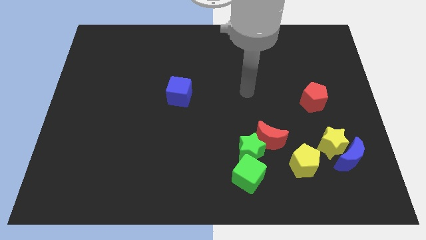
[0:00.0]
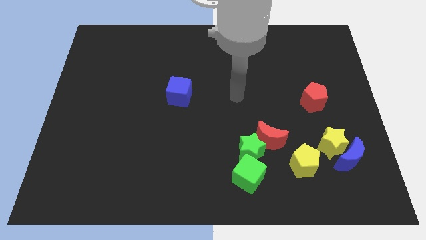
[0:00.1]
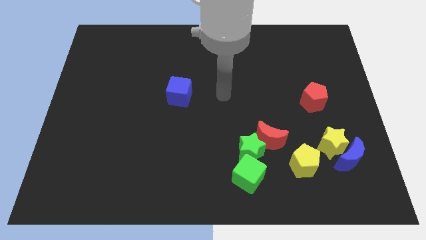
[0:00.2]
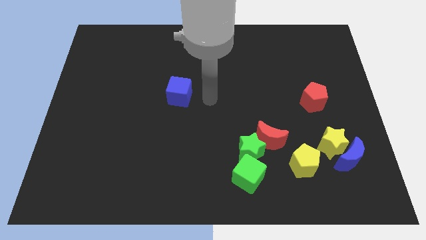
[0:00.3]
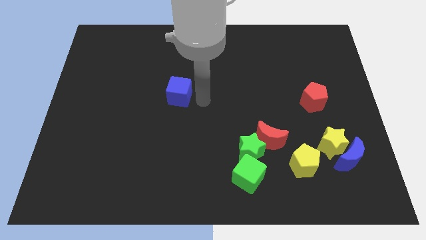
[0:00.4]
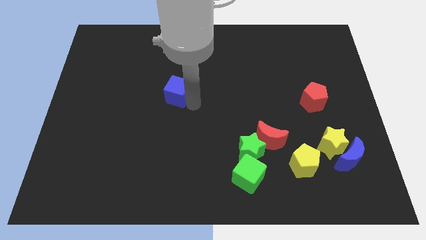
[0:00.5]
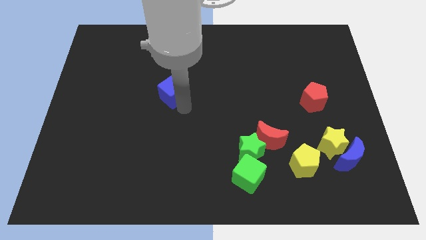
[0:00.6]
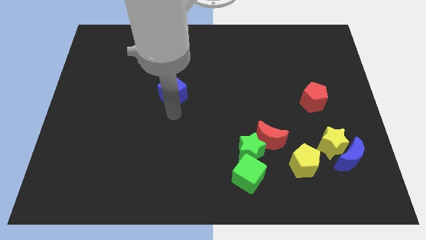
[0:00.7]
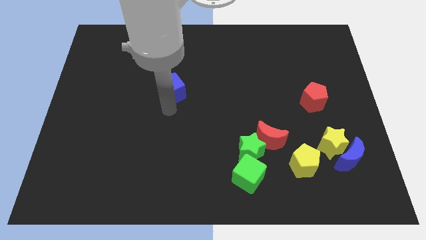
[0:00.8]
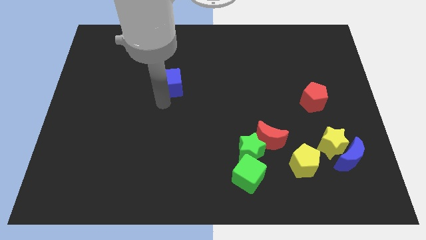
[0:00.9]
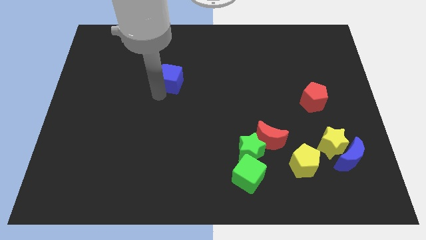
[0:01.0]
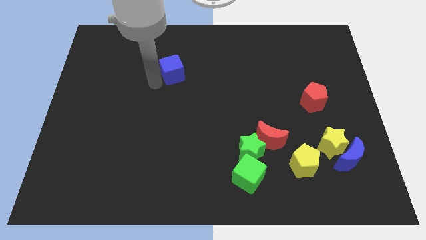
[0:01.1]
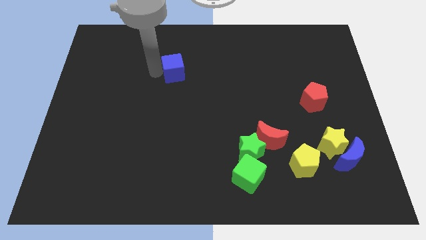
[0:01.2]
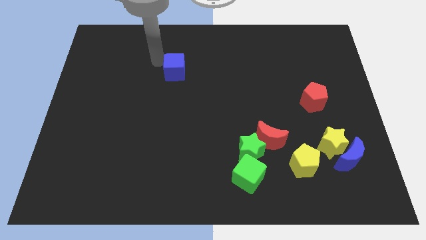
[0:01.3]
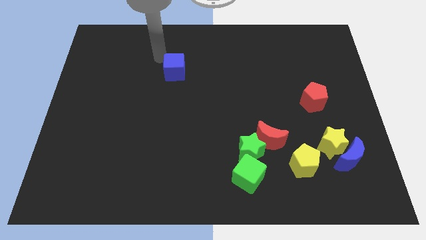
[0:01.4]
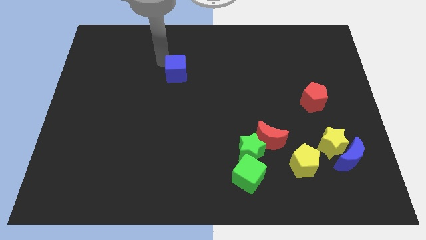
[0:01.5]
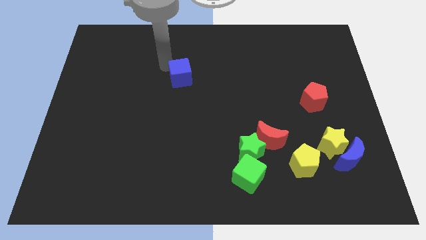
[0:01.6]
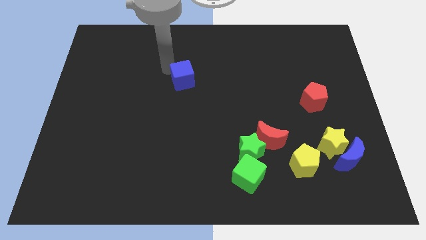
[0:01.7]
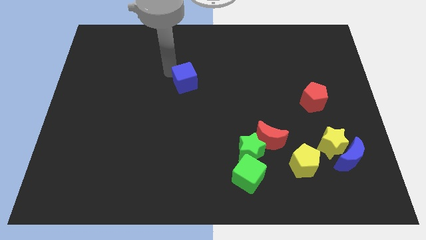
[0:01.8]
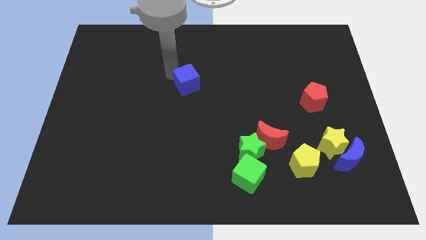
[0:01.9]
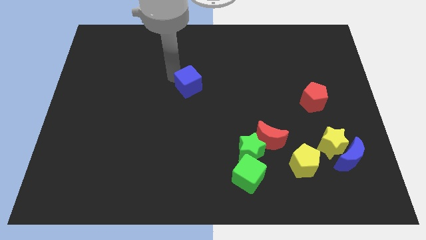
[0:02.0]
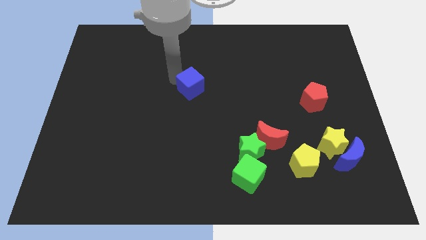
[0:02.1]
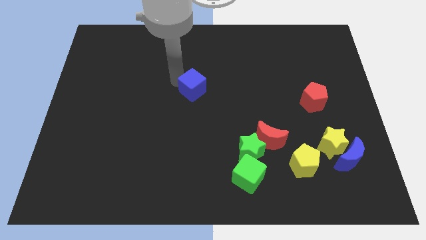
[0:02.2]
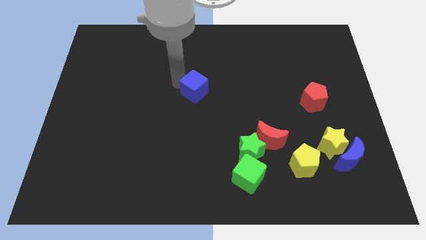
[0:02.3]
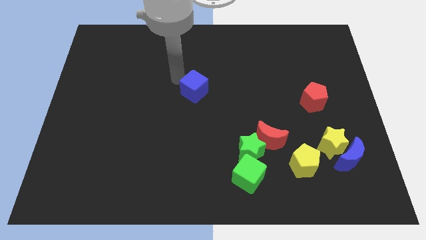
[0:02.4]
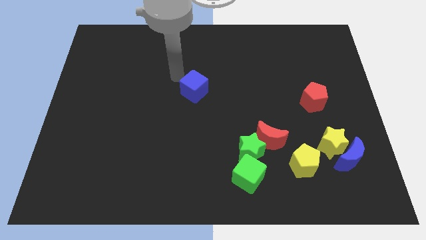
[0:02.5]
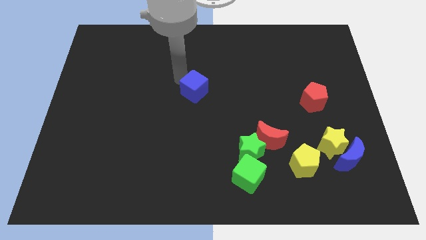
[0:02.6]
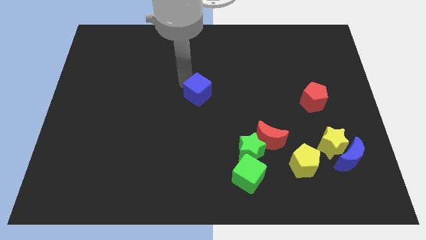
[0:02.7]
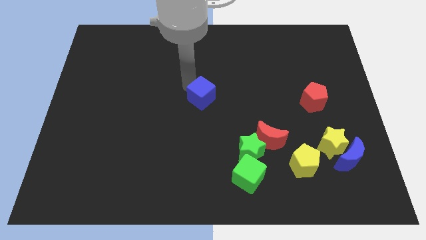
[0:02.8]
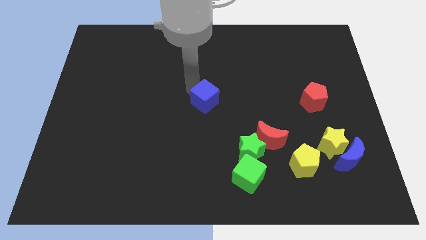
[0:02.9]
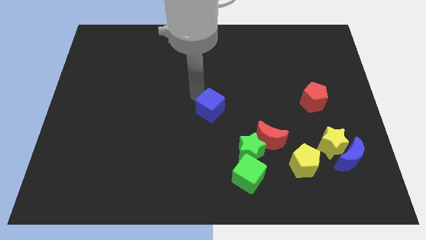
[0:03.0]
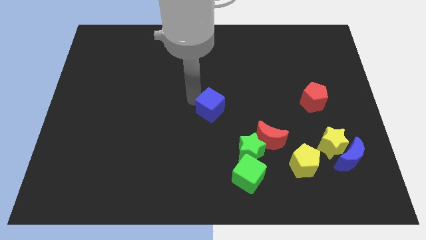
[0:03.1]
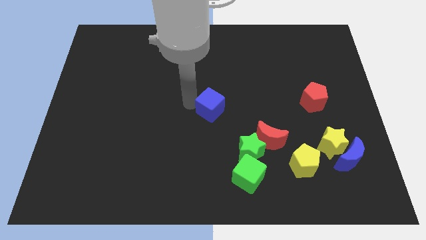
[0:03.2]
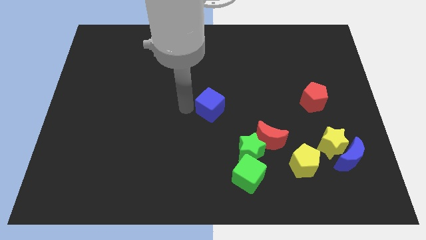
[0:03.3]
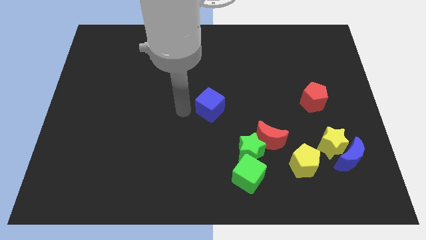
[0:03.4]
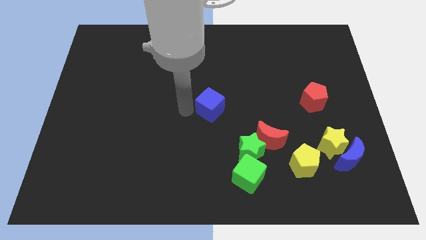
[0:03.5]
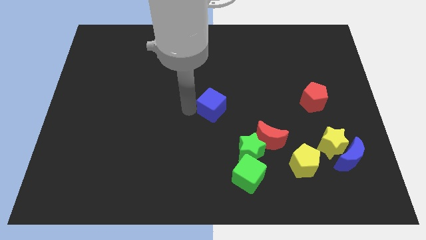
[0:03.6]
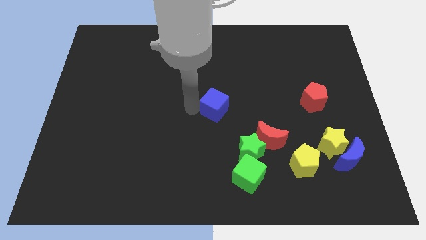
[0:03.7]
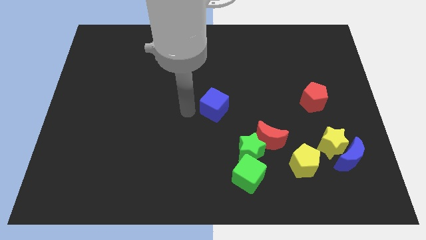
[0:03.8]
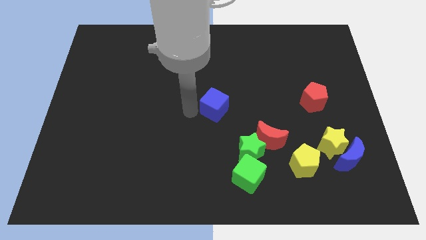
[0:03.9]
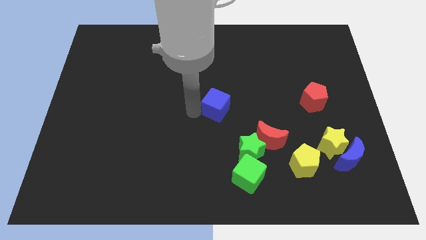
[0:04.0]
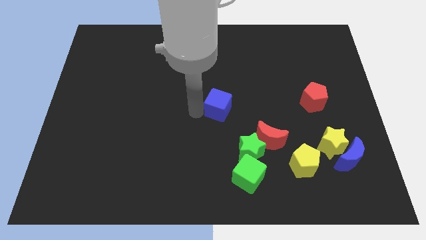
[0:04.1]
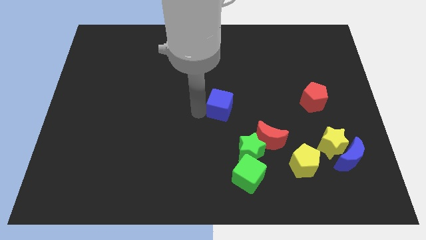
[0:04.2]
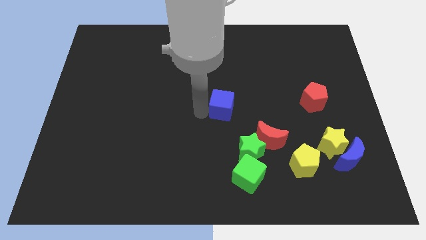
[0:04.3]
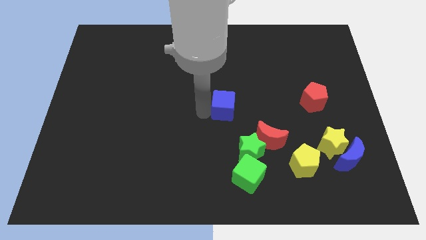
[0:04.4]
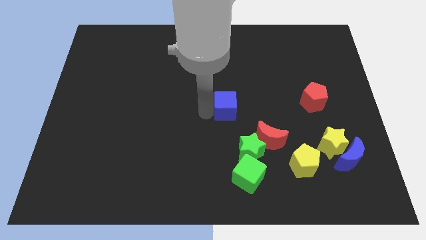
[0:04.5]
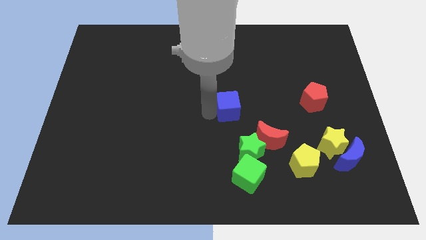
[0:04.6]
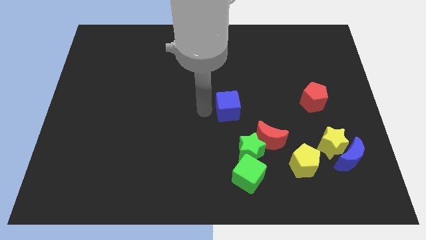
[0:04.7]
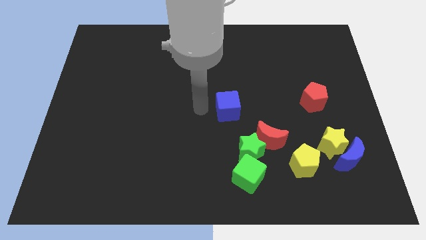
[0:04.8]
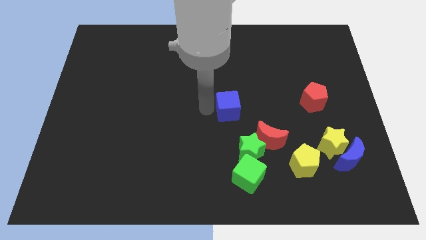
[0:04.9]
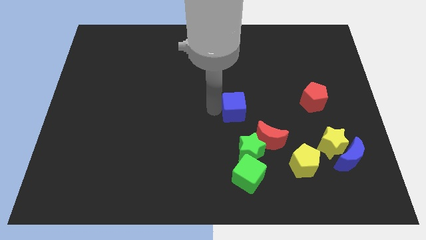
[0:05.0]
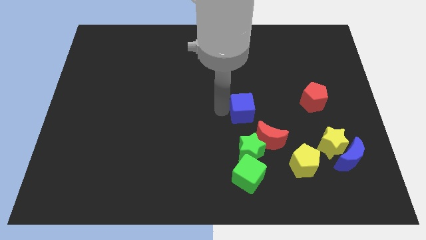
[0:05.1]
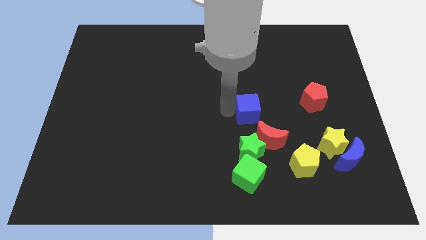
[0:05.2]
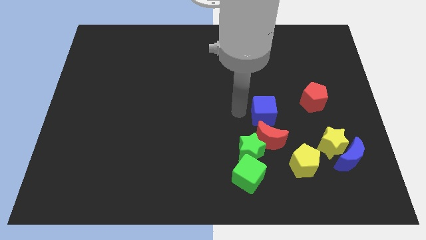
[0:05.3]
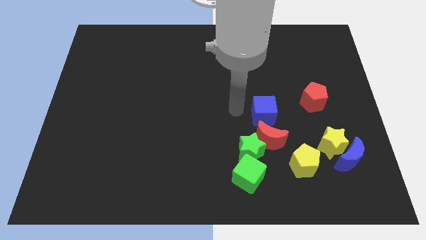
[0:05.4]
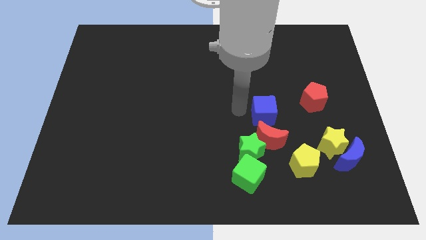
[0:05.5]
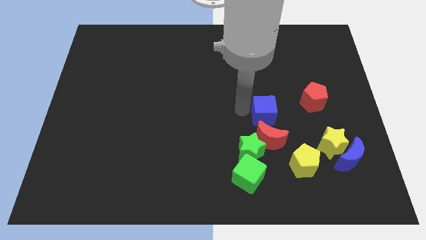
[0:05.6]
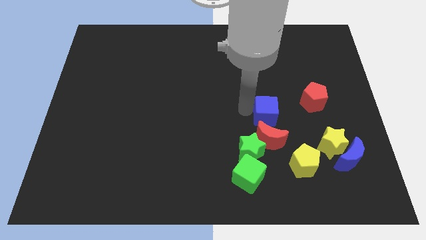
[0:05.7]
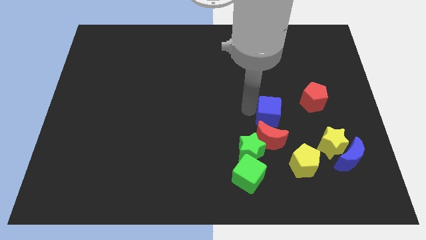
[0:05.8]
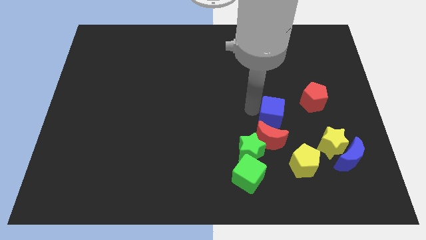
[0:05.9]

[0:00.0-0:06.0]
push the blue cube to the bottom left side of the red pentagon

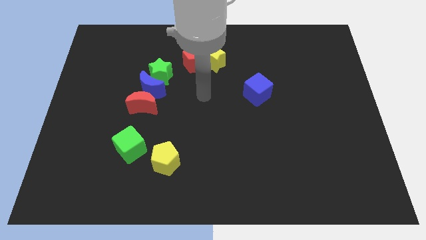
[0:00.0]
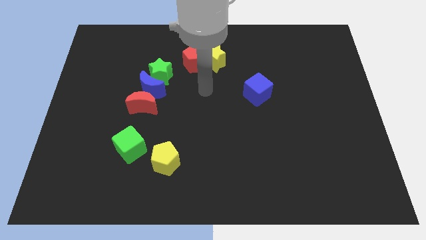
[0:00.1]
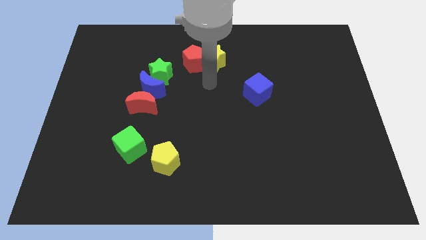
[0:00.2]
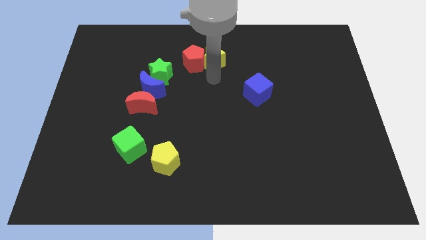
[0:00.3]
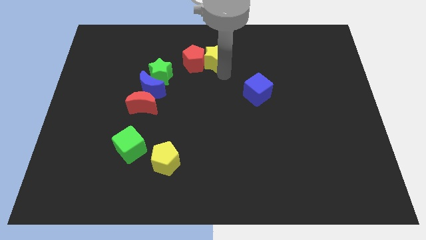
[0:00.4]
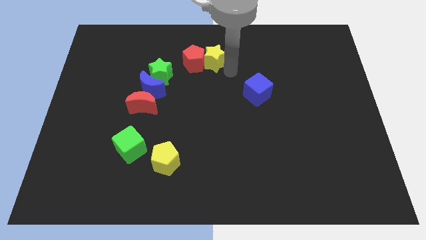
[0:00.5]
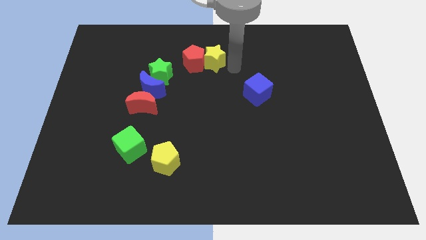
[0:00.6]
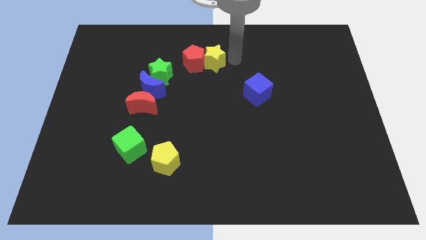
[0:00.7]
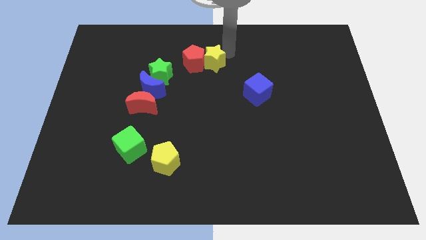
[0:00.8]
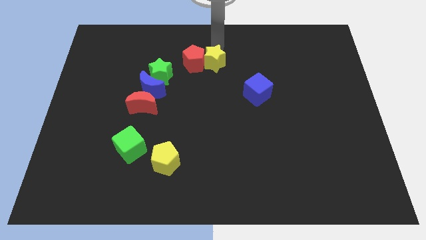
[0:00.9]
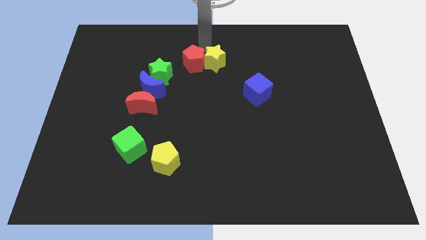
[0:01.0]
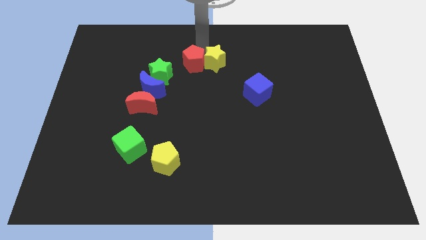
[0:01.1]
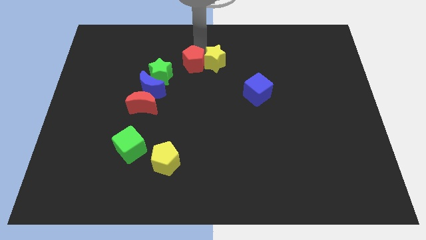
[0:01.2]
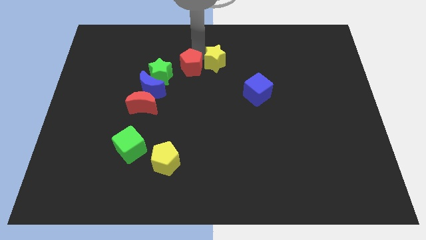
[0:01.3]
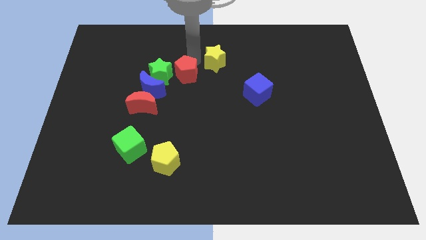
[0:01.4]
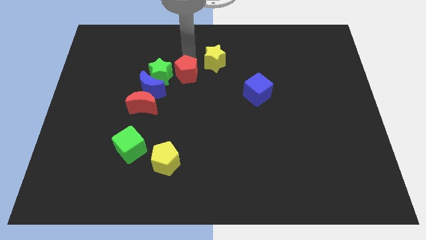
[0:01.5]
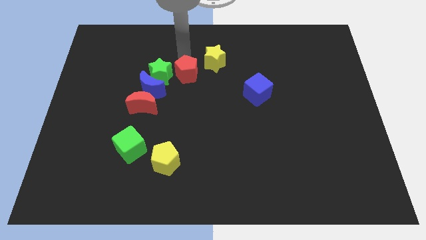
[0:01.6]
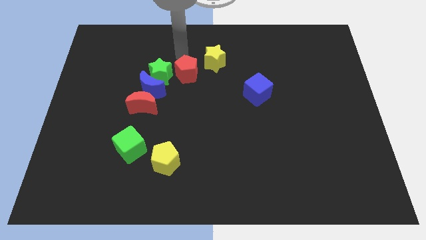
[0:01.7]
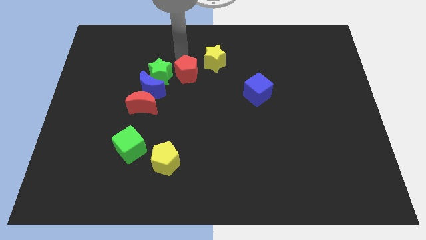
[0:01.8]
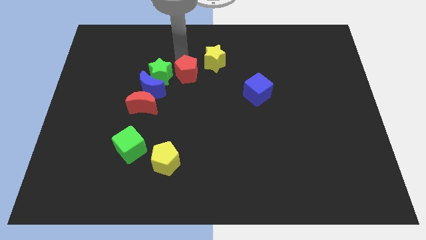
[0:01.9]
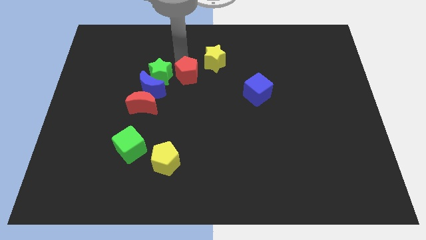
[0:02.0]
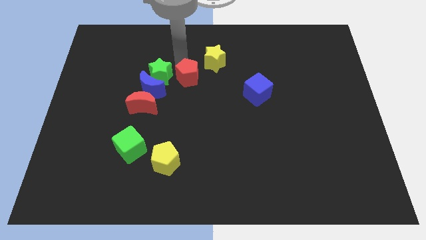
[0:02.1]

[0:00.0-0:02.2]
slide the red pentagon to the right of the blue moon
